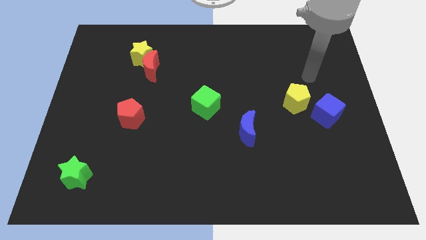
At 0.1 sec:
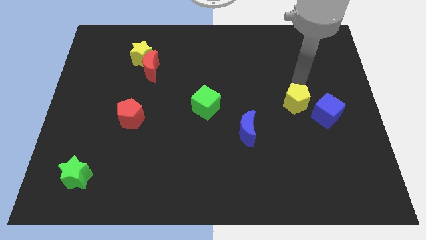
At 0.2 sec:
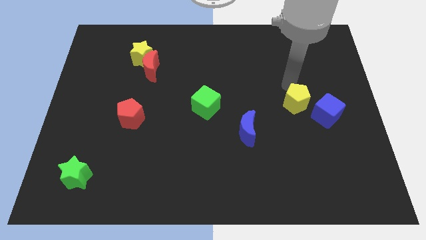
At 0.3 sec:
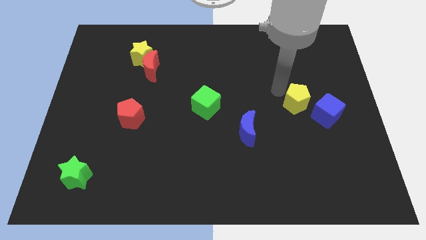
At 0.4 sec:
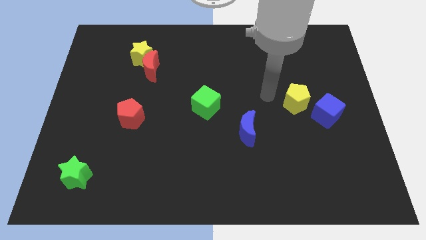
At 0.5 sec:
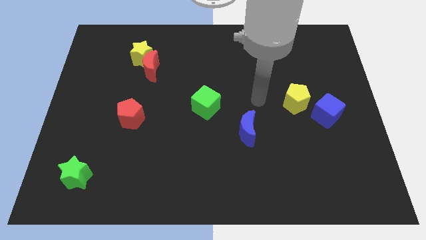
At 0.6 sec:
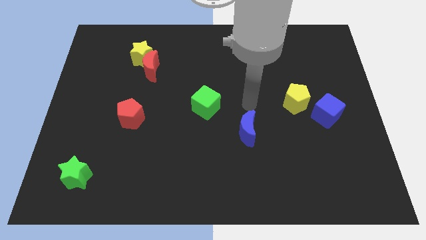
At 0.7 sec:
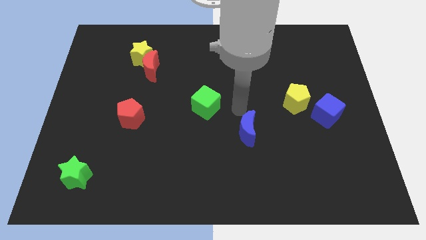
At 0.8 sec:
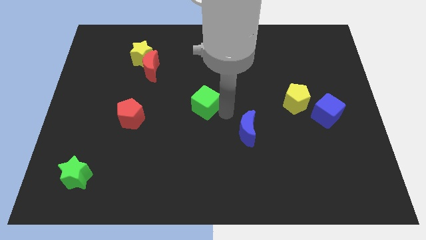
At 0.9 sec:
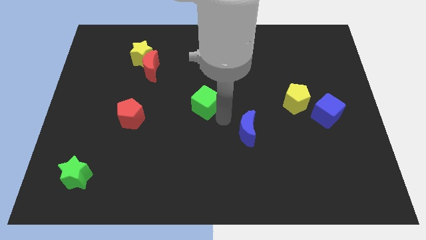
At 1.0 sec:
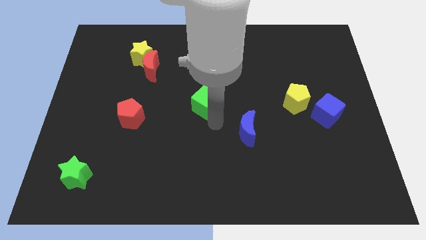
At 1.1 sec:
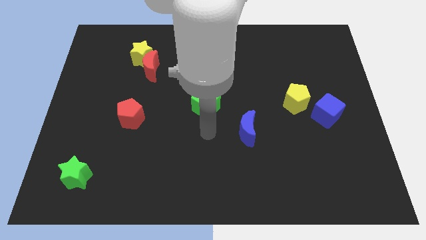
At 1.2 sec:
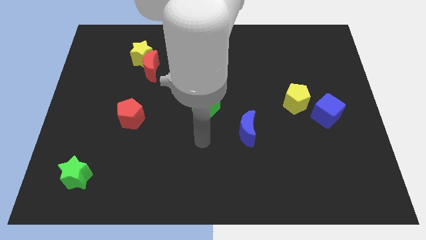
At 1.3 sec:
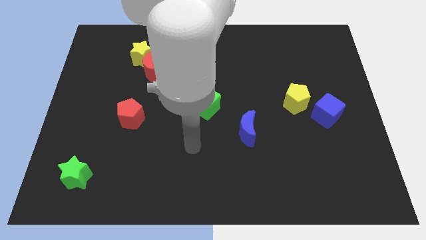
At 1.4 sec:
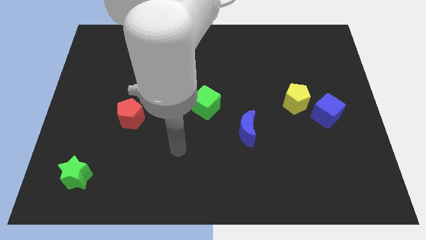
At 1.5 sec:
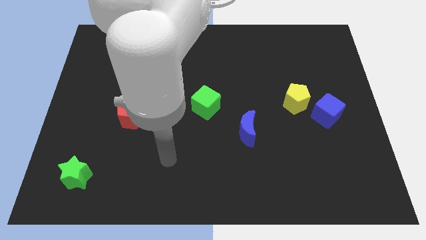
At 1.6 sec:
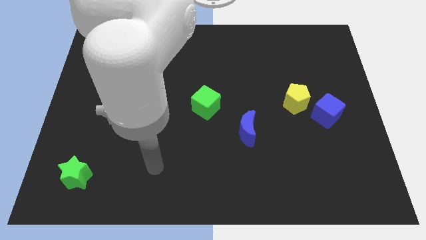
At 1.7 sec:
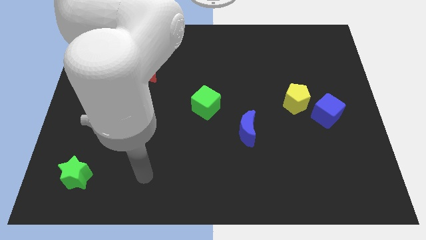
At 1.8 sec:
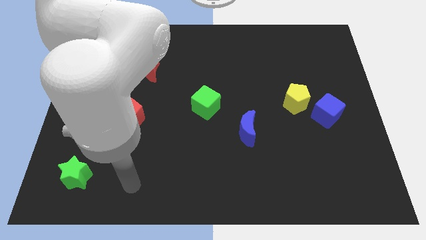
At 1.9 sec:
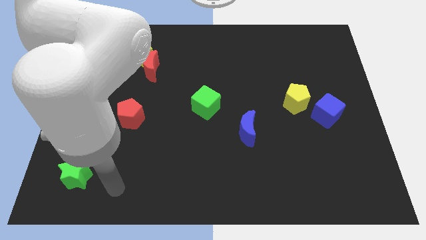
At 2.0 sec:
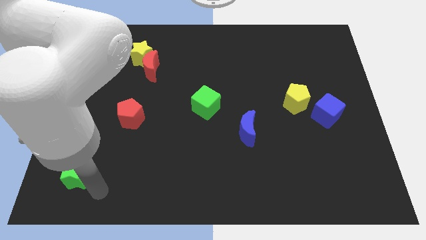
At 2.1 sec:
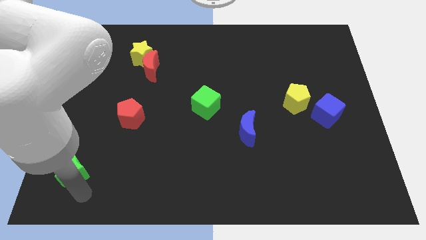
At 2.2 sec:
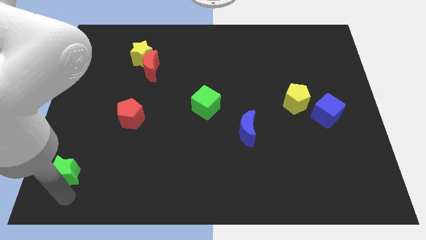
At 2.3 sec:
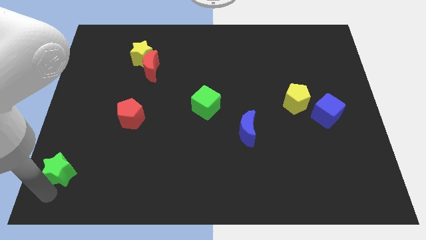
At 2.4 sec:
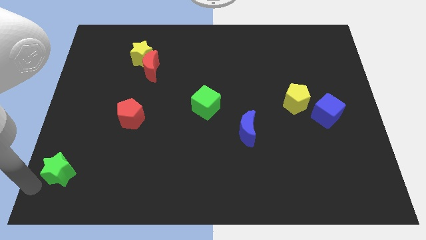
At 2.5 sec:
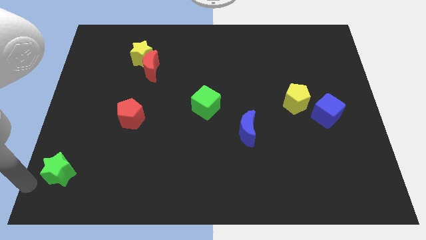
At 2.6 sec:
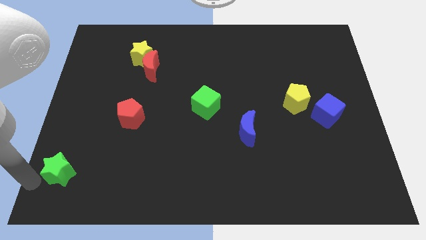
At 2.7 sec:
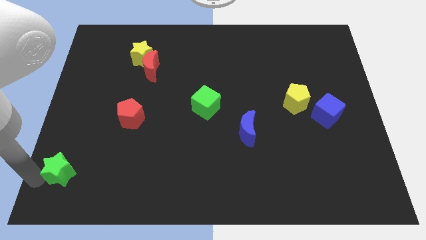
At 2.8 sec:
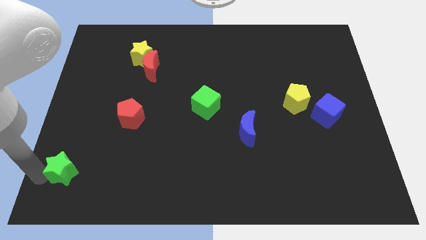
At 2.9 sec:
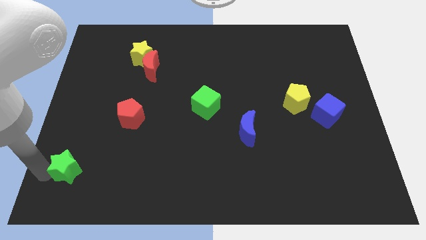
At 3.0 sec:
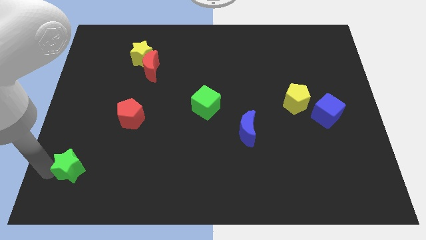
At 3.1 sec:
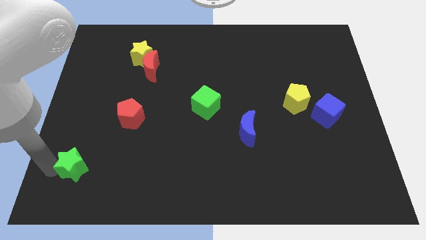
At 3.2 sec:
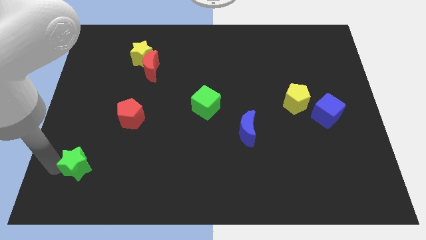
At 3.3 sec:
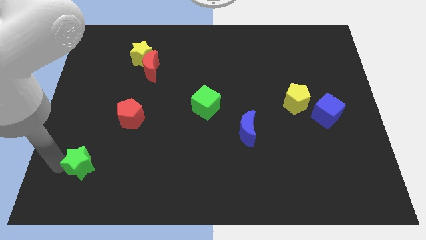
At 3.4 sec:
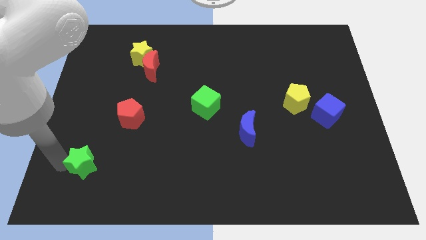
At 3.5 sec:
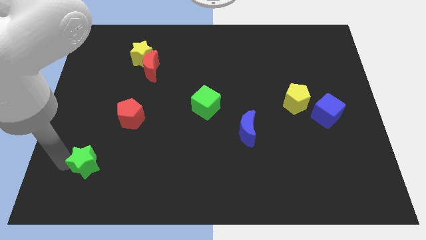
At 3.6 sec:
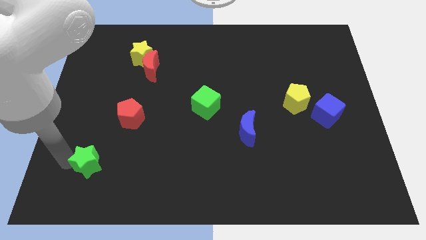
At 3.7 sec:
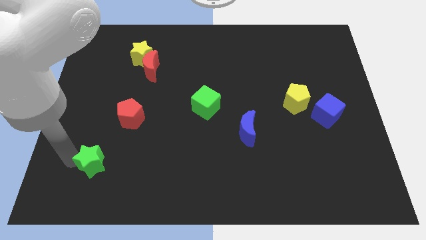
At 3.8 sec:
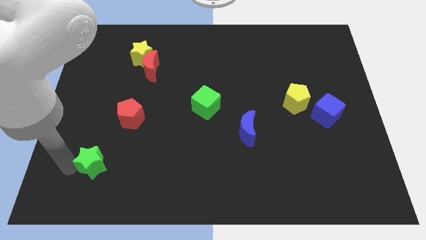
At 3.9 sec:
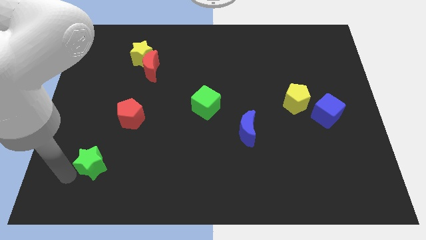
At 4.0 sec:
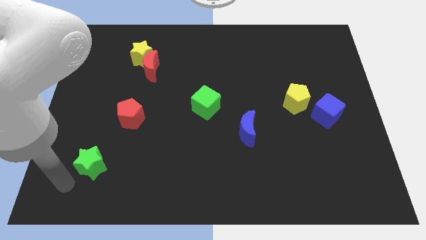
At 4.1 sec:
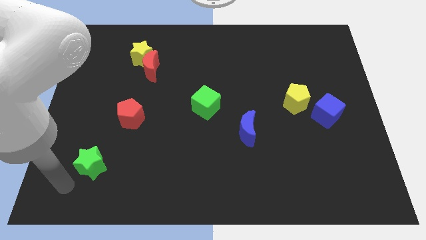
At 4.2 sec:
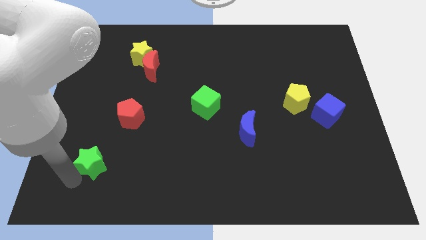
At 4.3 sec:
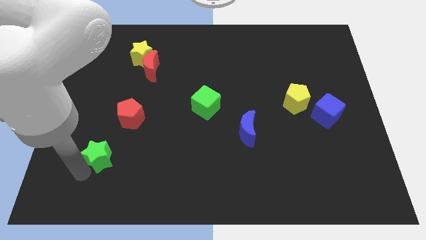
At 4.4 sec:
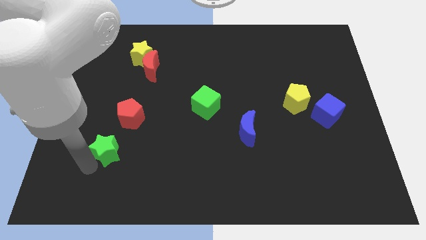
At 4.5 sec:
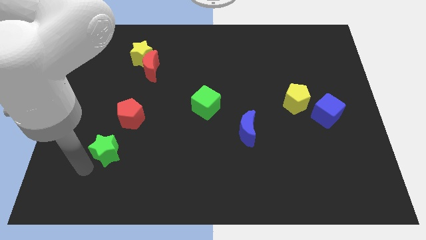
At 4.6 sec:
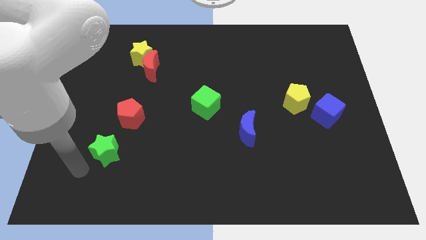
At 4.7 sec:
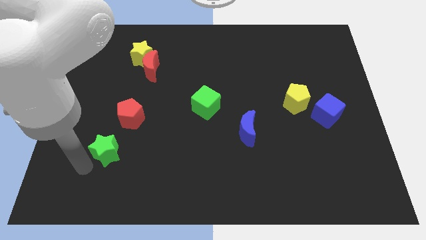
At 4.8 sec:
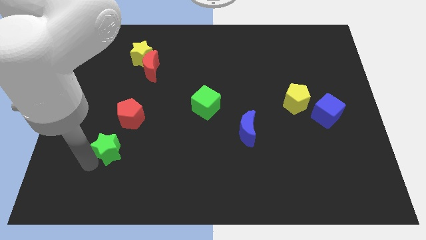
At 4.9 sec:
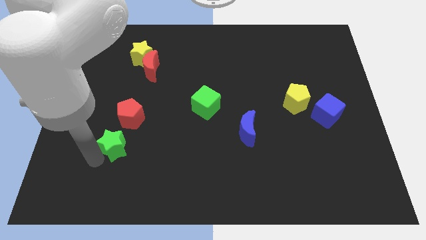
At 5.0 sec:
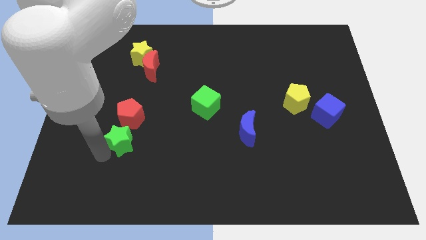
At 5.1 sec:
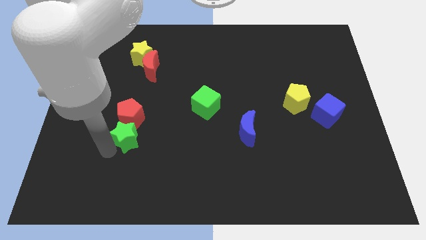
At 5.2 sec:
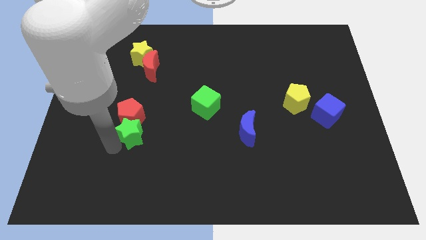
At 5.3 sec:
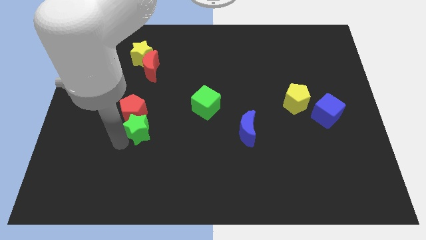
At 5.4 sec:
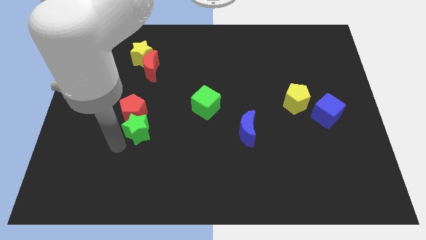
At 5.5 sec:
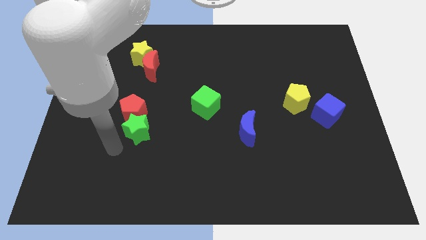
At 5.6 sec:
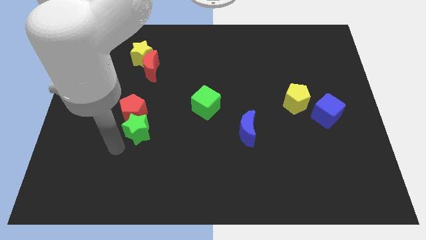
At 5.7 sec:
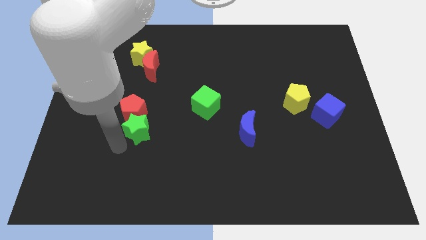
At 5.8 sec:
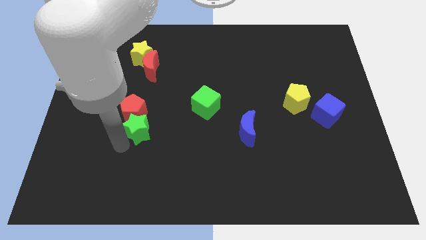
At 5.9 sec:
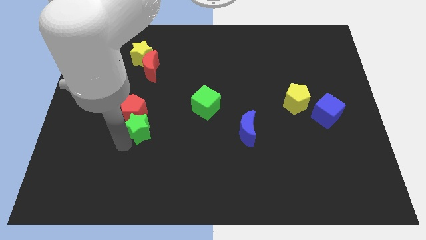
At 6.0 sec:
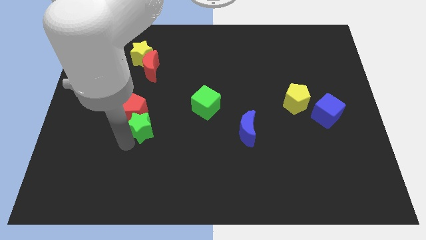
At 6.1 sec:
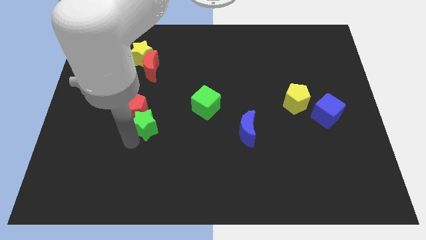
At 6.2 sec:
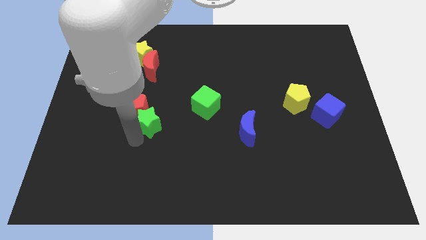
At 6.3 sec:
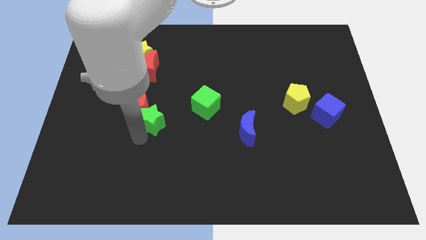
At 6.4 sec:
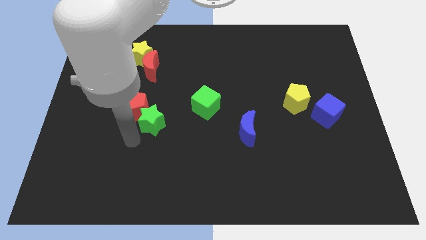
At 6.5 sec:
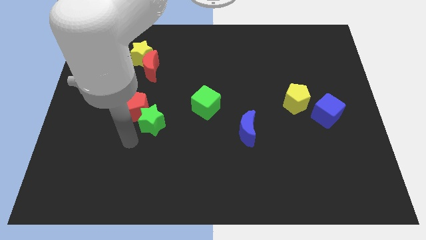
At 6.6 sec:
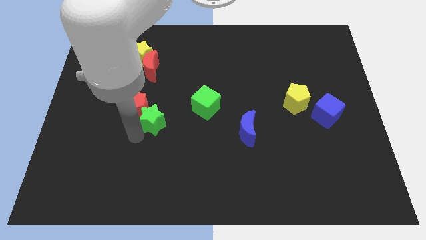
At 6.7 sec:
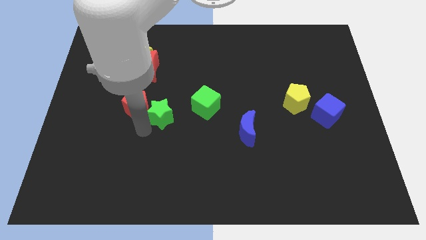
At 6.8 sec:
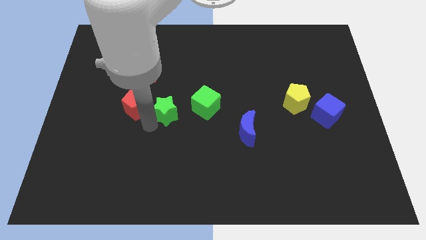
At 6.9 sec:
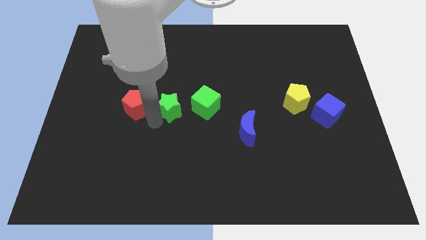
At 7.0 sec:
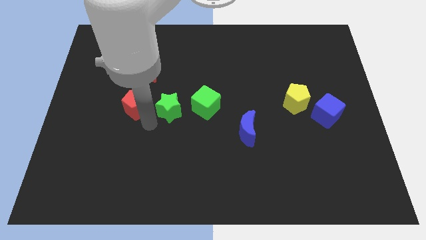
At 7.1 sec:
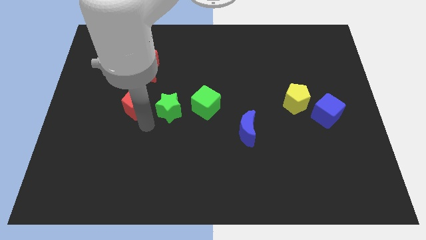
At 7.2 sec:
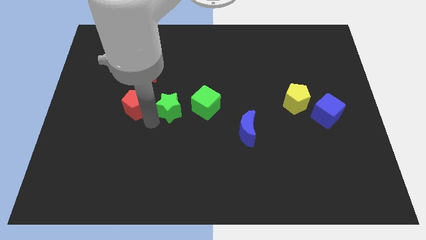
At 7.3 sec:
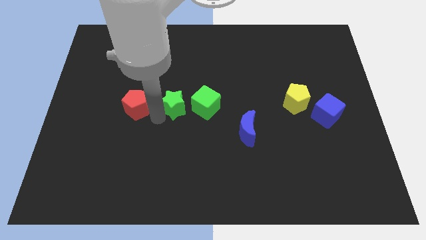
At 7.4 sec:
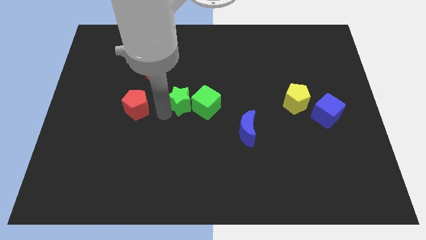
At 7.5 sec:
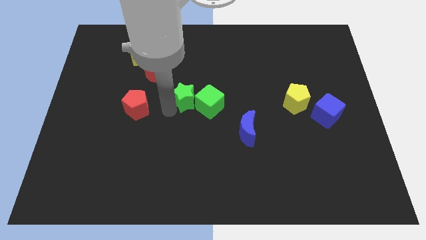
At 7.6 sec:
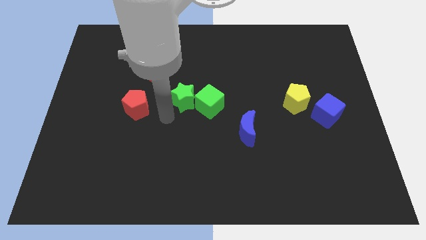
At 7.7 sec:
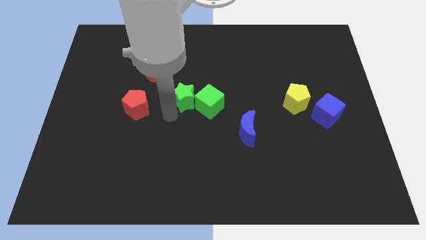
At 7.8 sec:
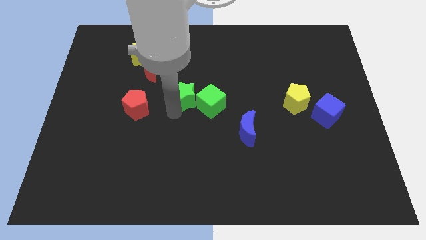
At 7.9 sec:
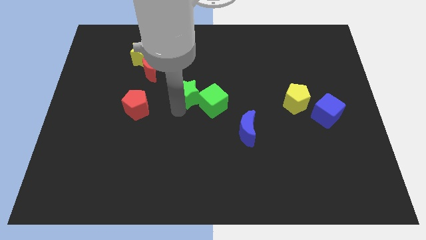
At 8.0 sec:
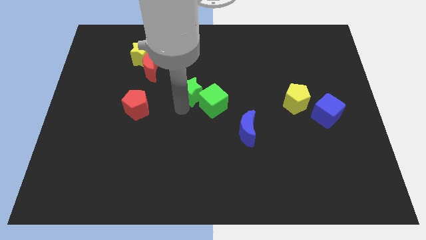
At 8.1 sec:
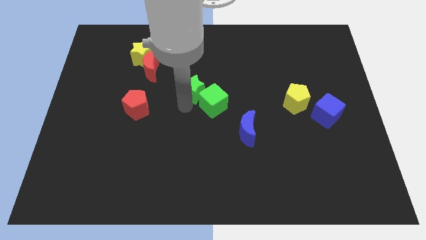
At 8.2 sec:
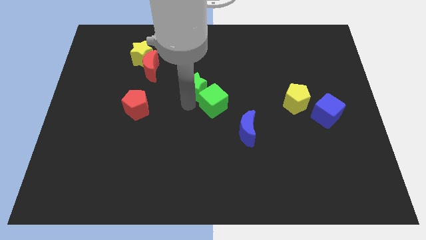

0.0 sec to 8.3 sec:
push the green star to the top of the green cube
